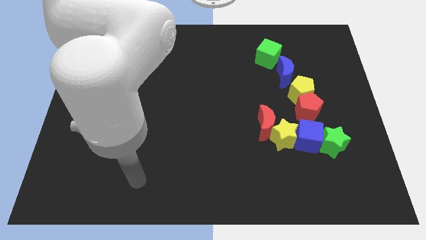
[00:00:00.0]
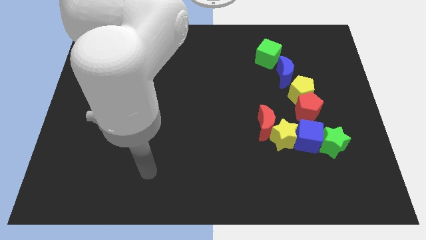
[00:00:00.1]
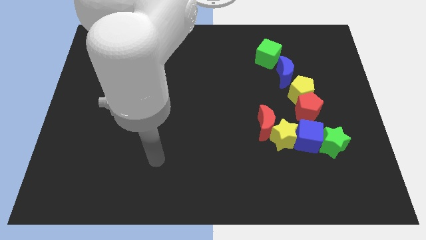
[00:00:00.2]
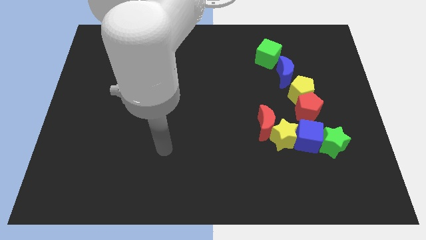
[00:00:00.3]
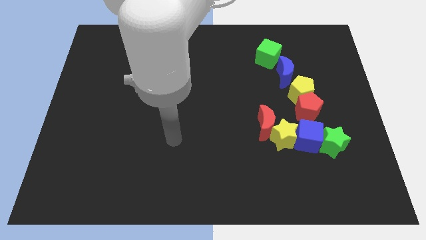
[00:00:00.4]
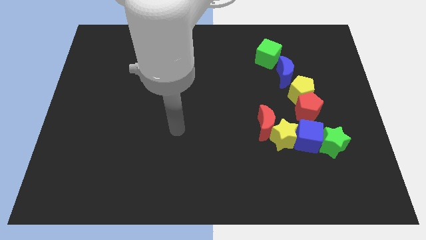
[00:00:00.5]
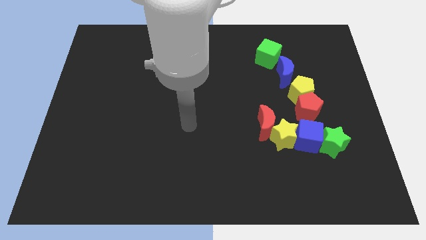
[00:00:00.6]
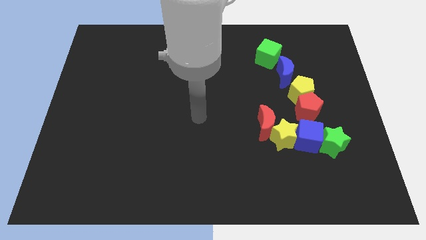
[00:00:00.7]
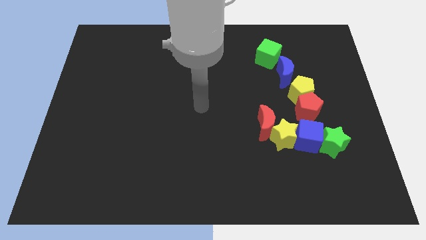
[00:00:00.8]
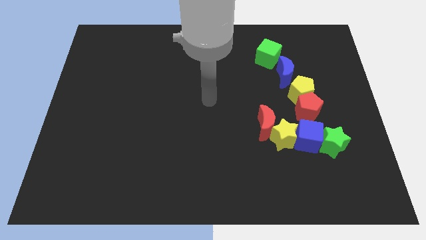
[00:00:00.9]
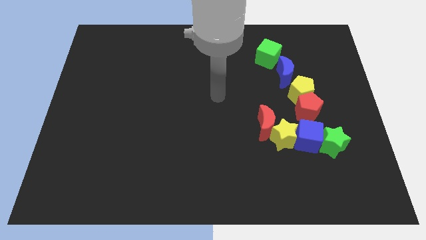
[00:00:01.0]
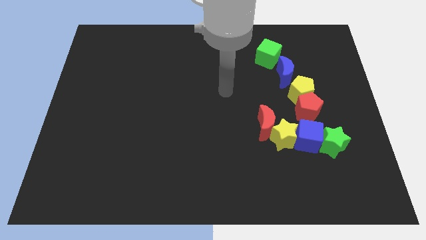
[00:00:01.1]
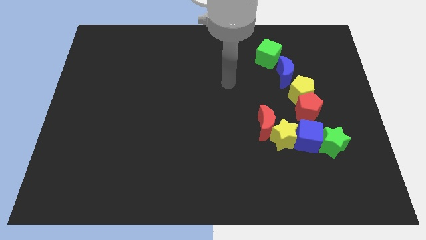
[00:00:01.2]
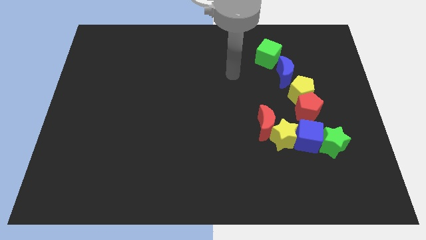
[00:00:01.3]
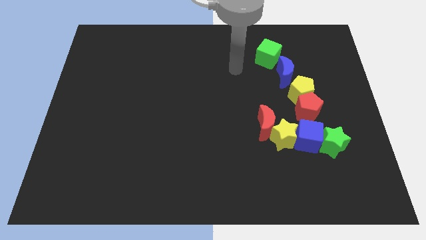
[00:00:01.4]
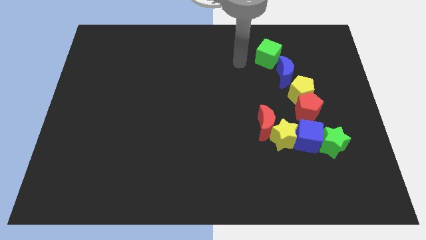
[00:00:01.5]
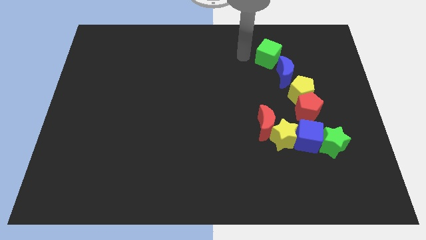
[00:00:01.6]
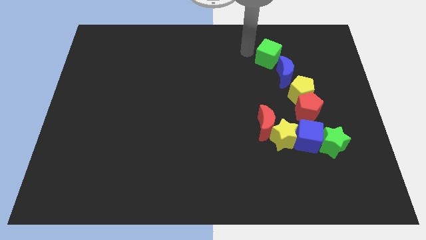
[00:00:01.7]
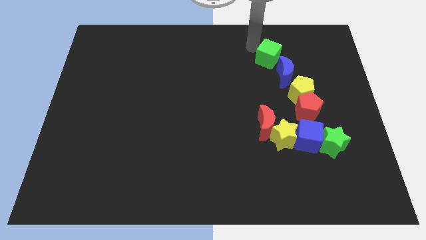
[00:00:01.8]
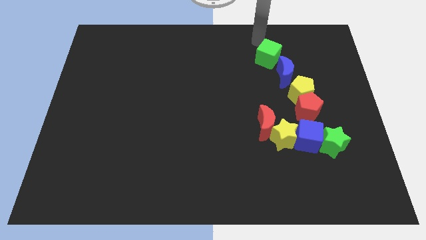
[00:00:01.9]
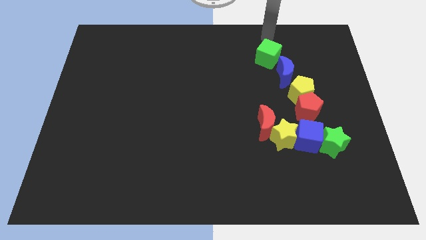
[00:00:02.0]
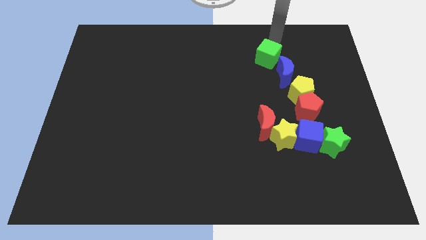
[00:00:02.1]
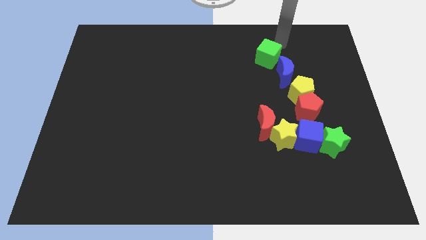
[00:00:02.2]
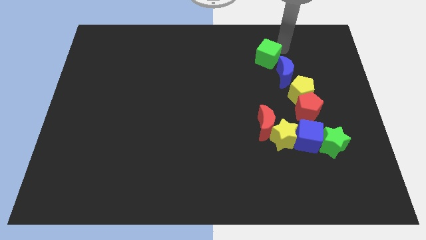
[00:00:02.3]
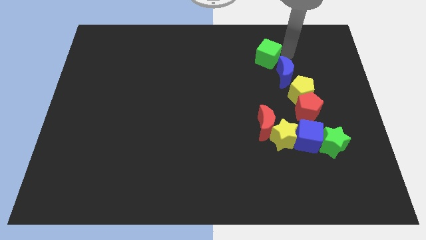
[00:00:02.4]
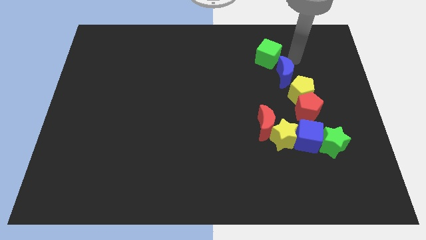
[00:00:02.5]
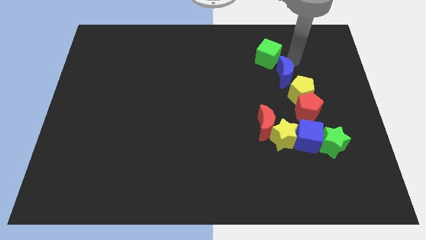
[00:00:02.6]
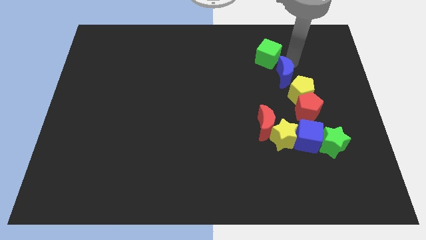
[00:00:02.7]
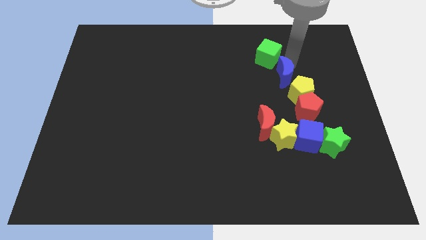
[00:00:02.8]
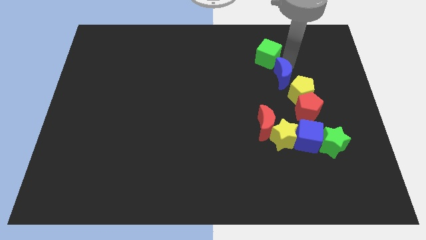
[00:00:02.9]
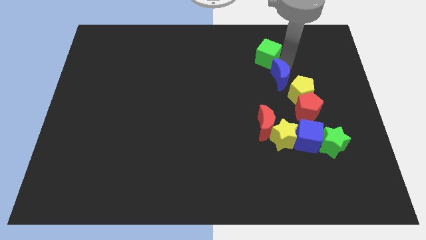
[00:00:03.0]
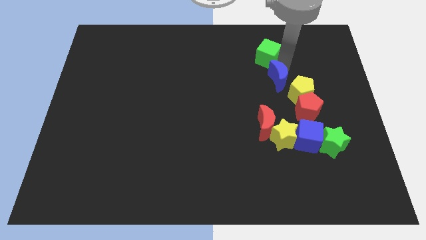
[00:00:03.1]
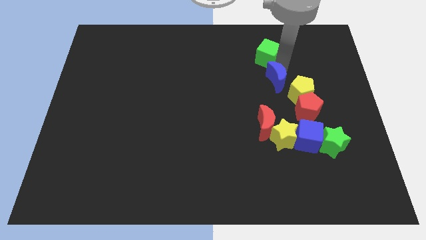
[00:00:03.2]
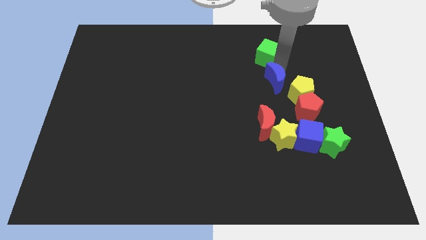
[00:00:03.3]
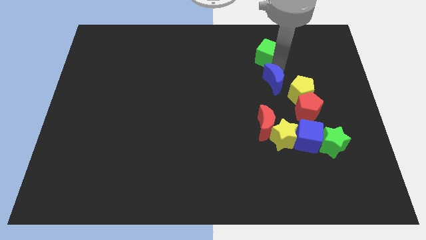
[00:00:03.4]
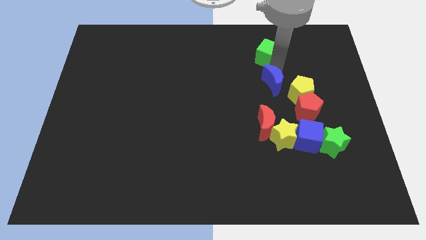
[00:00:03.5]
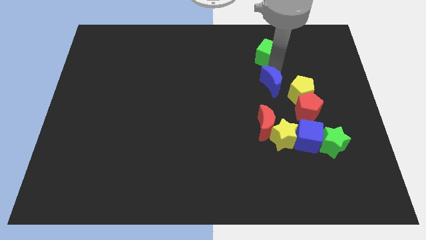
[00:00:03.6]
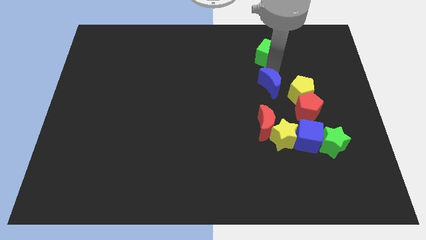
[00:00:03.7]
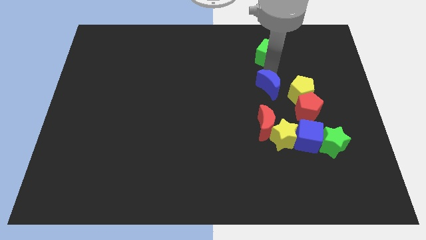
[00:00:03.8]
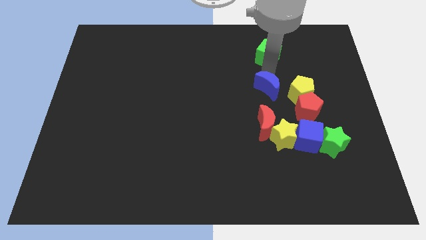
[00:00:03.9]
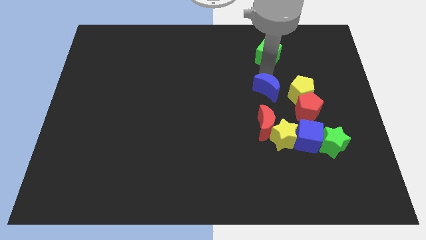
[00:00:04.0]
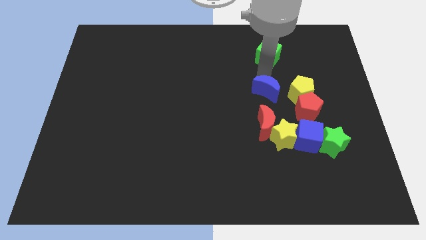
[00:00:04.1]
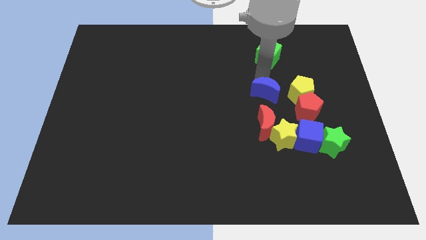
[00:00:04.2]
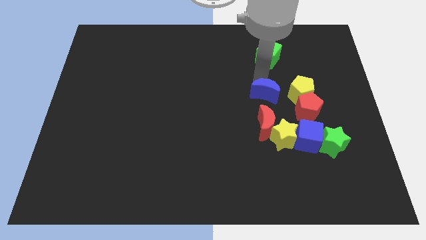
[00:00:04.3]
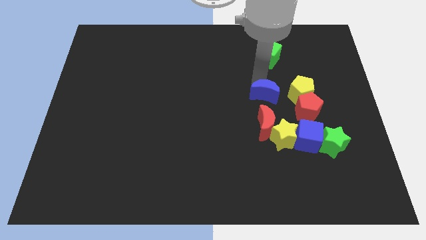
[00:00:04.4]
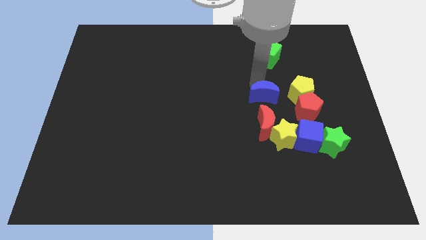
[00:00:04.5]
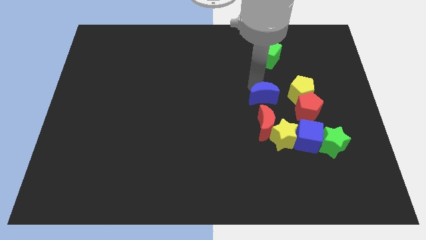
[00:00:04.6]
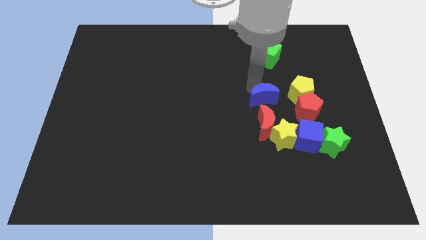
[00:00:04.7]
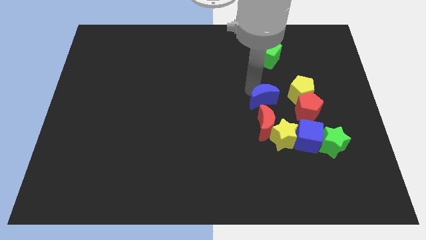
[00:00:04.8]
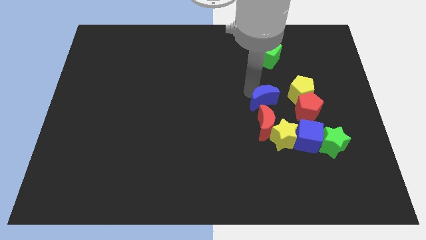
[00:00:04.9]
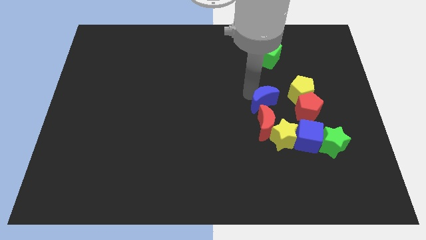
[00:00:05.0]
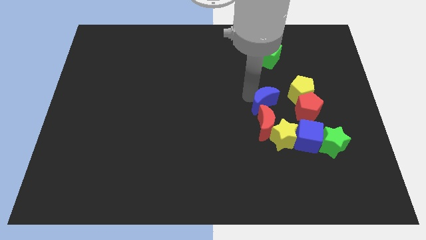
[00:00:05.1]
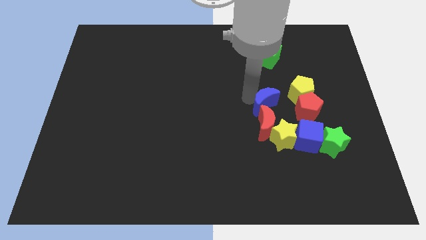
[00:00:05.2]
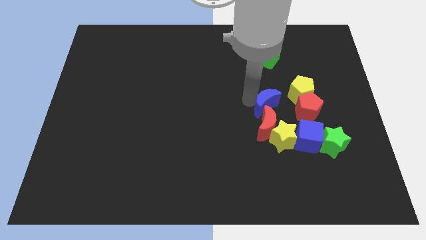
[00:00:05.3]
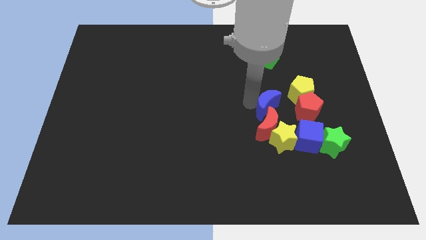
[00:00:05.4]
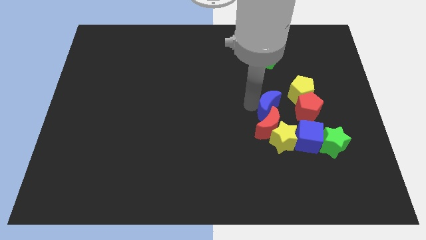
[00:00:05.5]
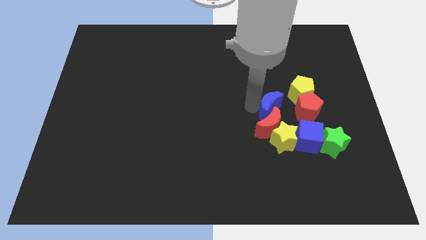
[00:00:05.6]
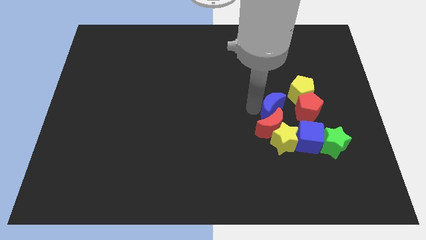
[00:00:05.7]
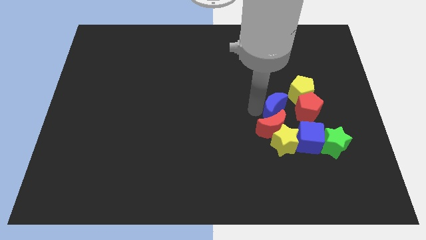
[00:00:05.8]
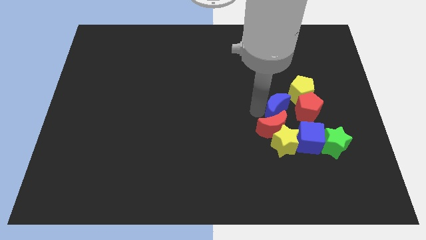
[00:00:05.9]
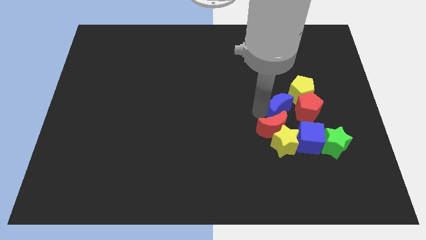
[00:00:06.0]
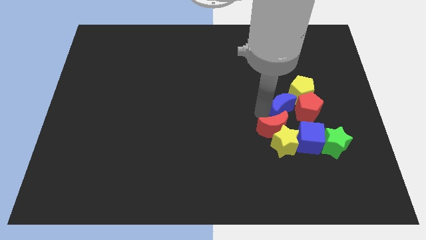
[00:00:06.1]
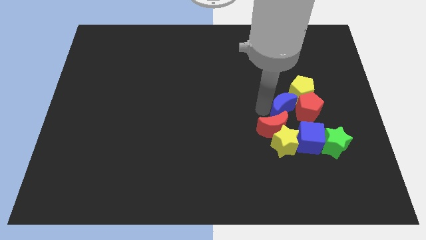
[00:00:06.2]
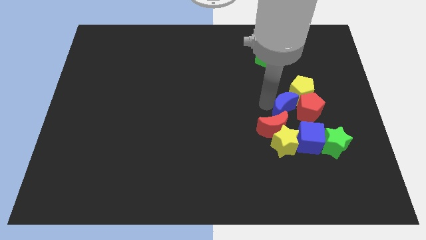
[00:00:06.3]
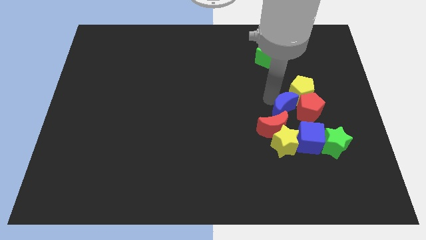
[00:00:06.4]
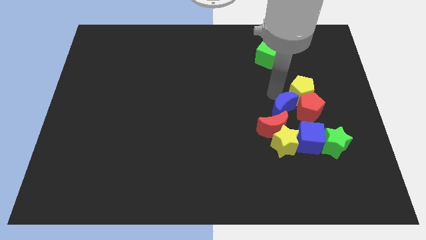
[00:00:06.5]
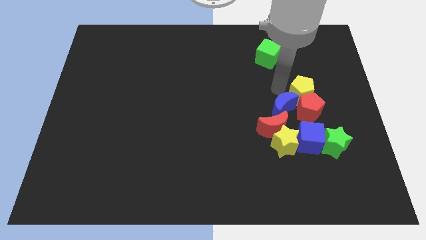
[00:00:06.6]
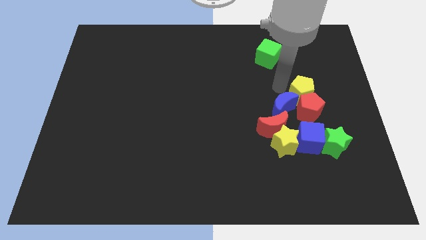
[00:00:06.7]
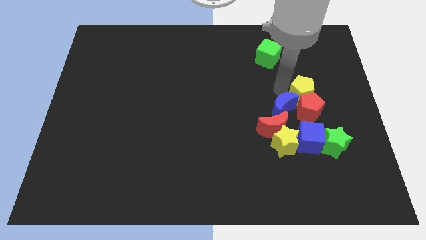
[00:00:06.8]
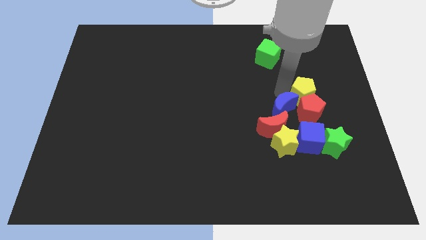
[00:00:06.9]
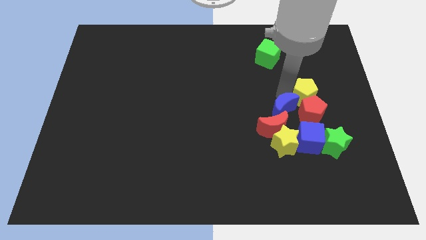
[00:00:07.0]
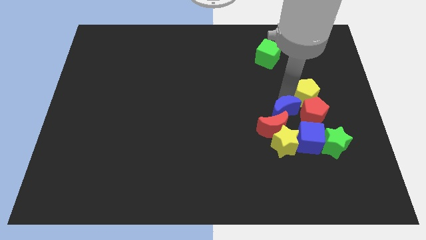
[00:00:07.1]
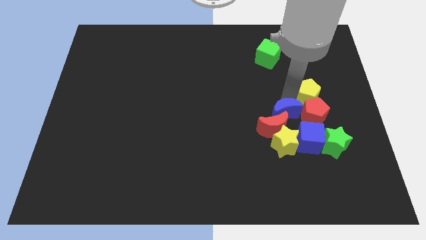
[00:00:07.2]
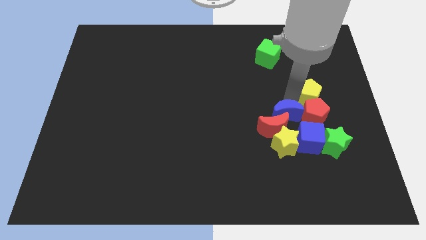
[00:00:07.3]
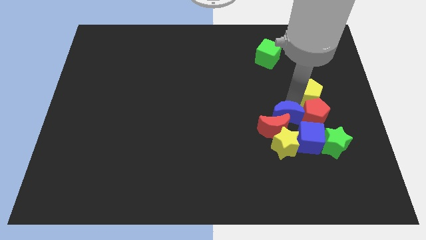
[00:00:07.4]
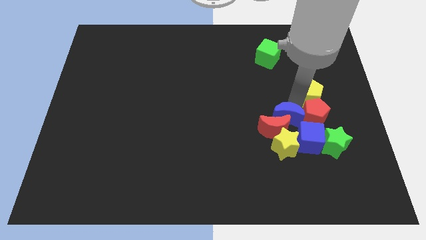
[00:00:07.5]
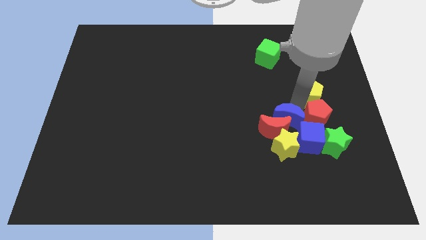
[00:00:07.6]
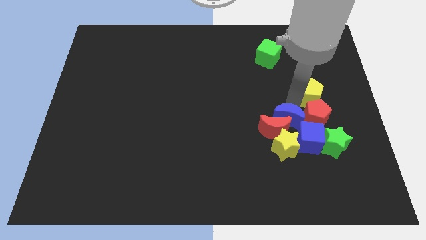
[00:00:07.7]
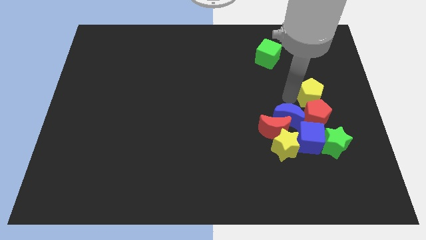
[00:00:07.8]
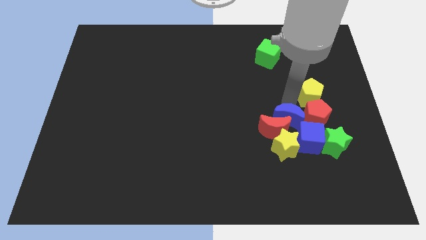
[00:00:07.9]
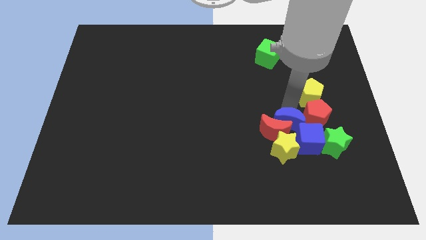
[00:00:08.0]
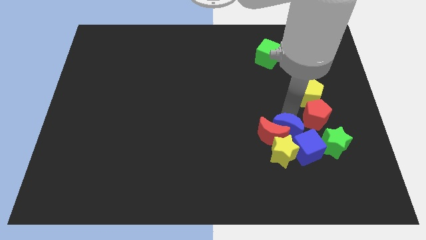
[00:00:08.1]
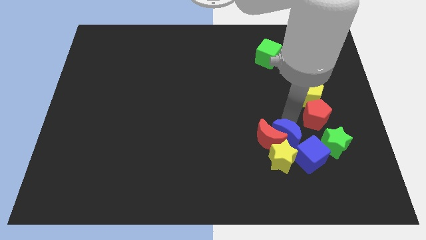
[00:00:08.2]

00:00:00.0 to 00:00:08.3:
push the blue moon to the yellow star
